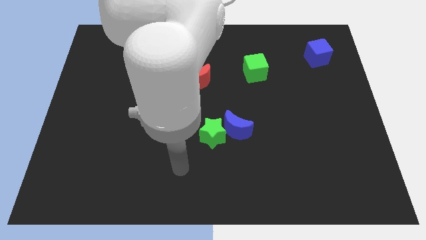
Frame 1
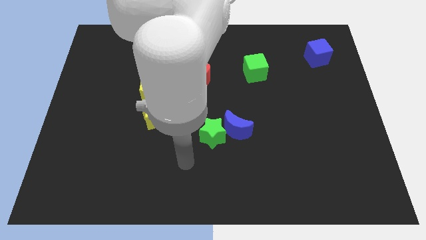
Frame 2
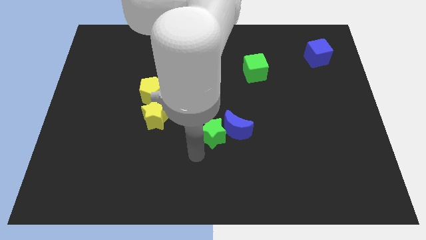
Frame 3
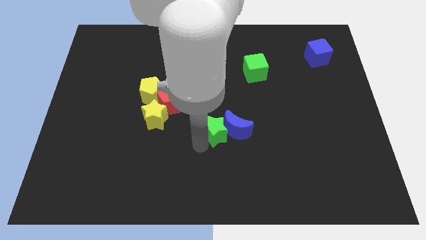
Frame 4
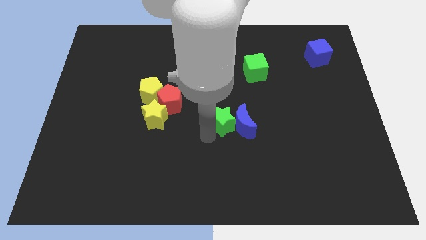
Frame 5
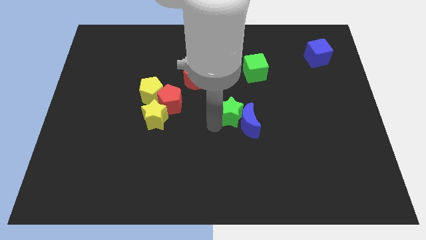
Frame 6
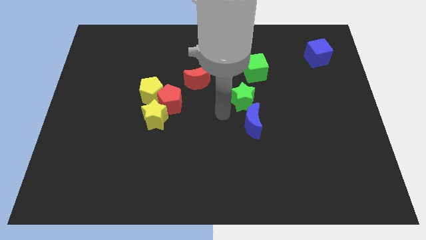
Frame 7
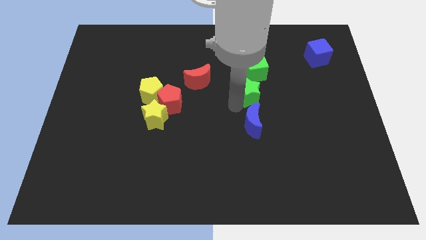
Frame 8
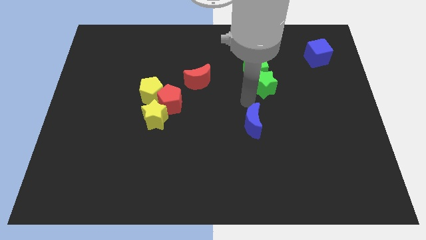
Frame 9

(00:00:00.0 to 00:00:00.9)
move the blue moon away from the green star

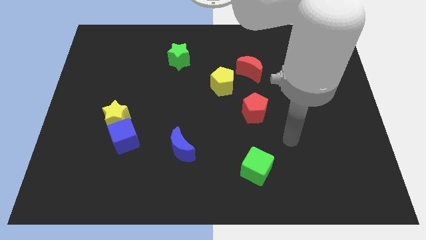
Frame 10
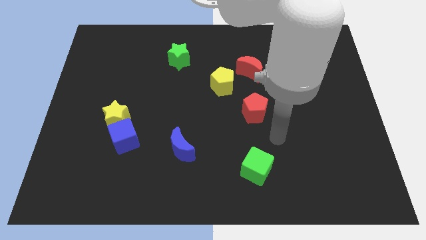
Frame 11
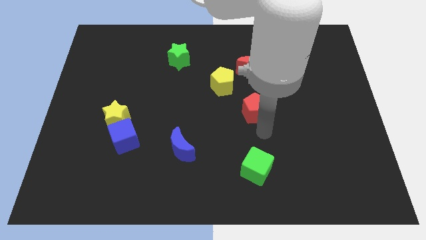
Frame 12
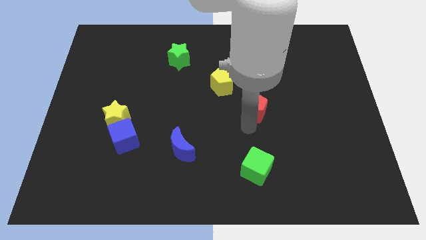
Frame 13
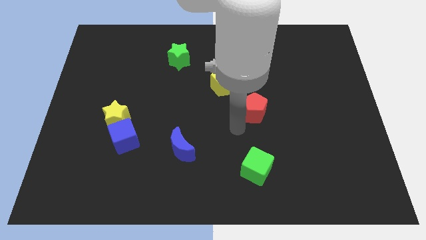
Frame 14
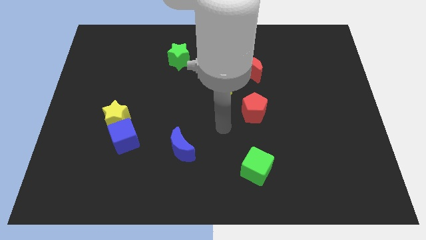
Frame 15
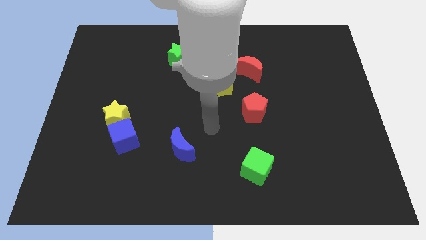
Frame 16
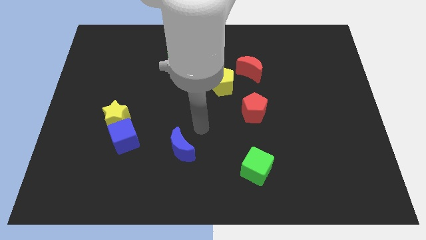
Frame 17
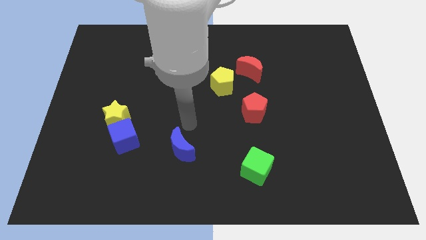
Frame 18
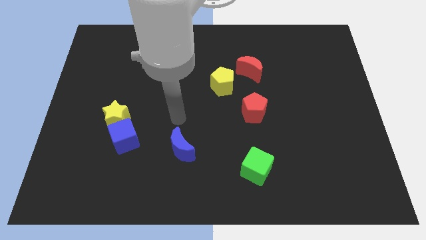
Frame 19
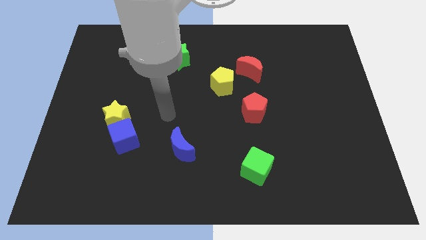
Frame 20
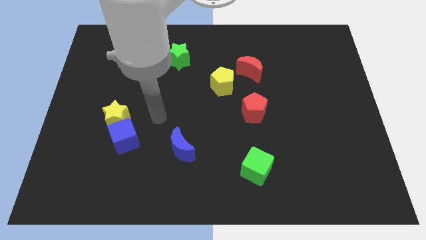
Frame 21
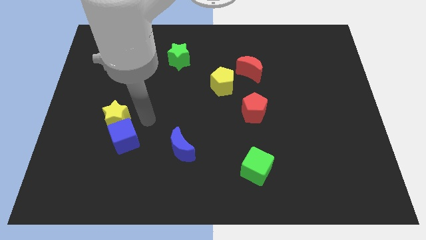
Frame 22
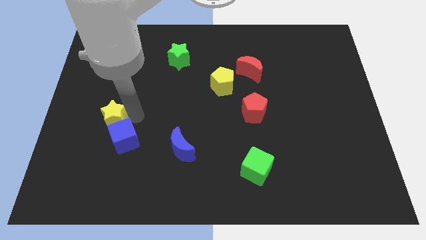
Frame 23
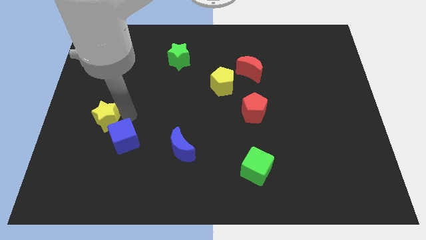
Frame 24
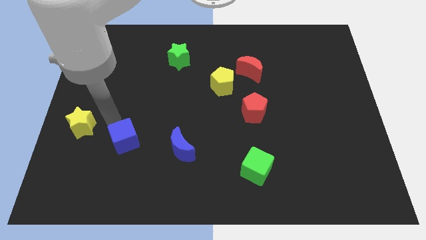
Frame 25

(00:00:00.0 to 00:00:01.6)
pull the blue cube apart from the yellow star

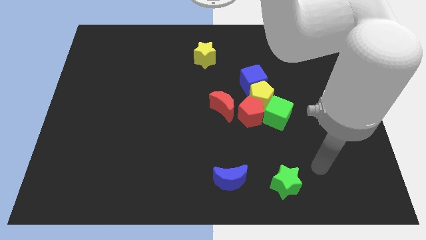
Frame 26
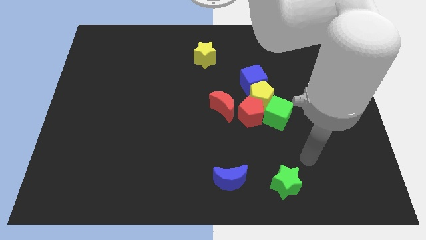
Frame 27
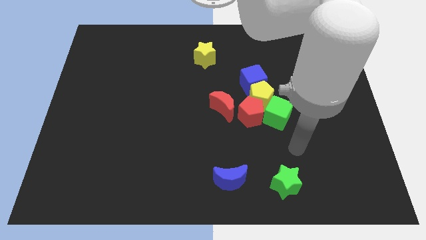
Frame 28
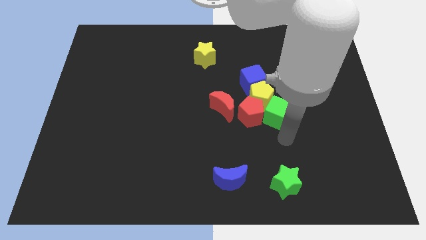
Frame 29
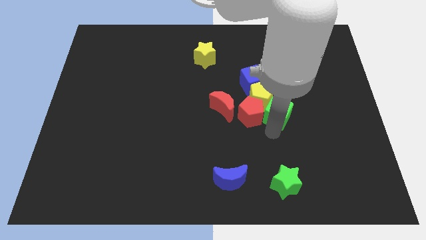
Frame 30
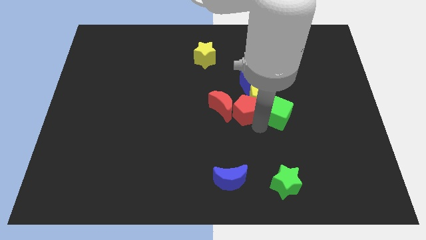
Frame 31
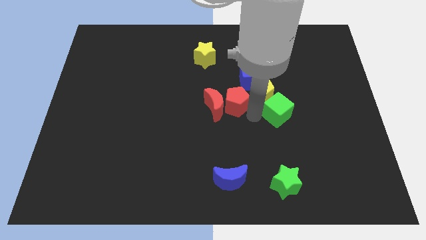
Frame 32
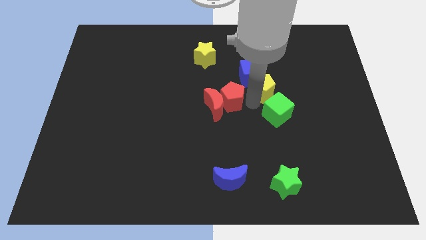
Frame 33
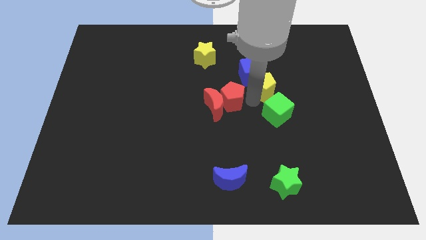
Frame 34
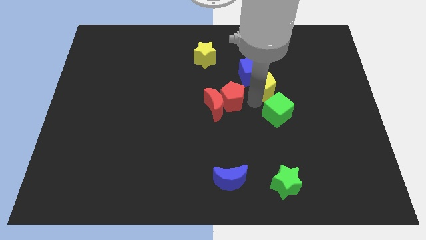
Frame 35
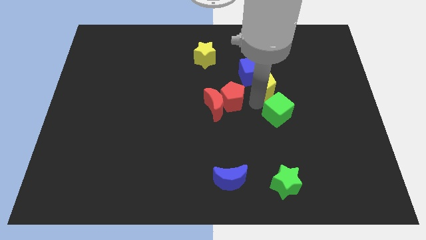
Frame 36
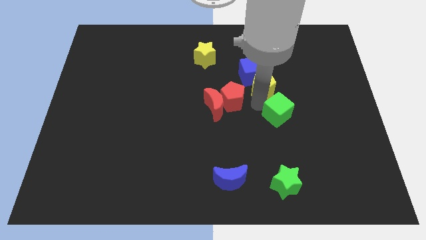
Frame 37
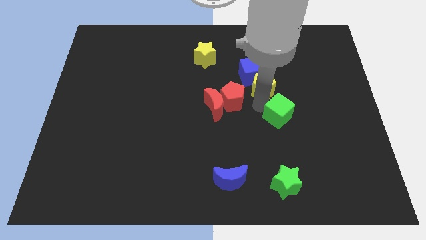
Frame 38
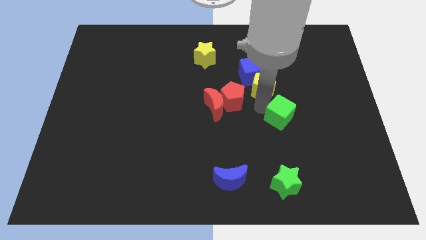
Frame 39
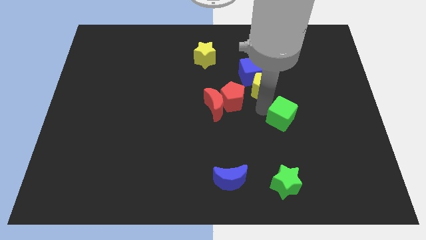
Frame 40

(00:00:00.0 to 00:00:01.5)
separate the green cube from the red pentagon and yellow pentagon

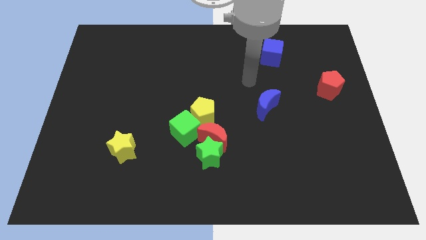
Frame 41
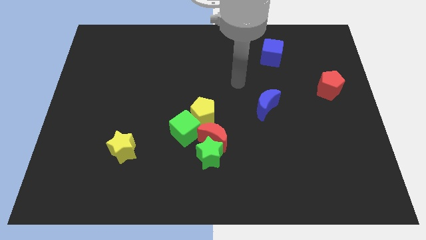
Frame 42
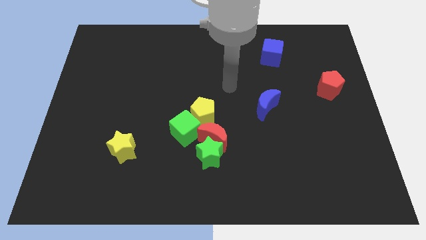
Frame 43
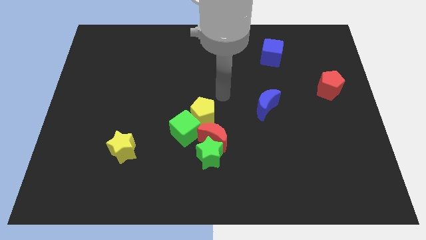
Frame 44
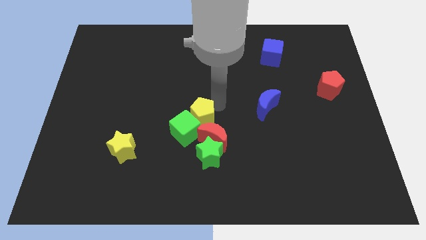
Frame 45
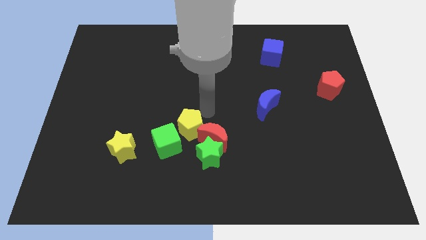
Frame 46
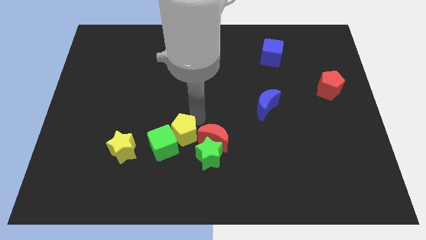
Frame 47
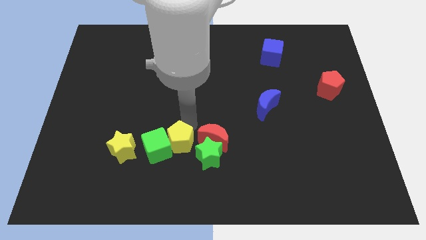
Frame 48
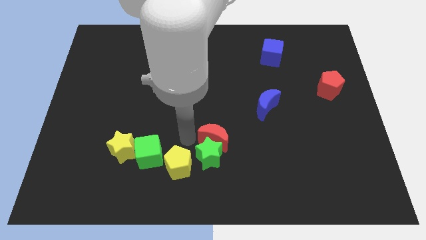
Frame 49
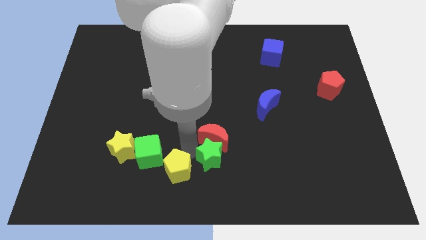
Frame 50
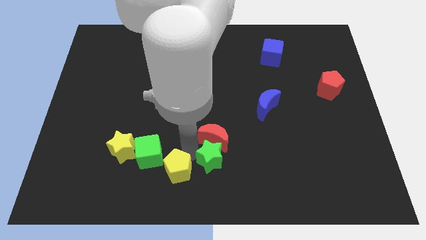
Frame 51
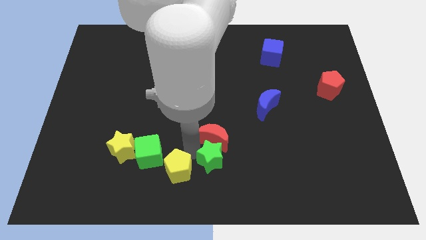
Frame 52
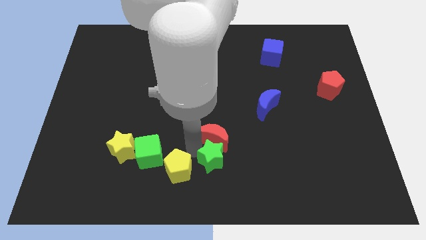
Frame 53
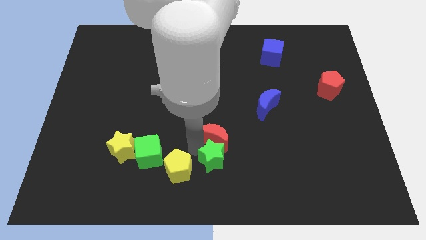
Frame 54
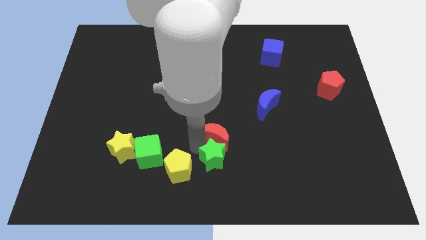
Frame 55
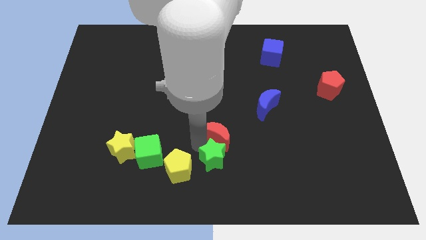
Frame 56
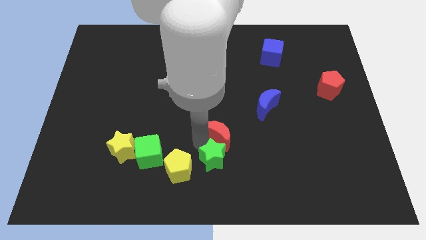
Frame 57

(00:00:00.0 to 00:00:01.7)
move the red moon away from the green star, yellow pentagon, and green cube

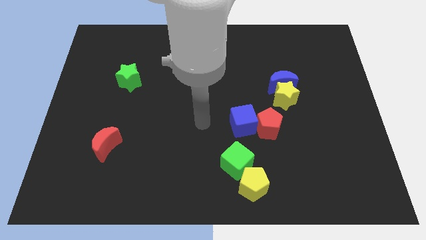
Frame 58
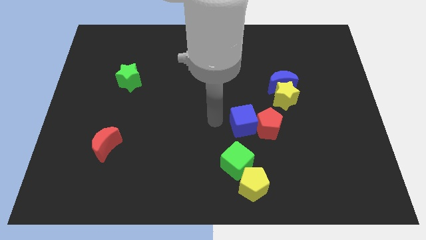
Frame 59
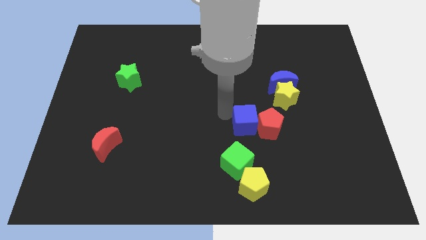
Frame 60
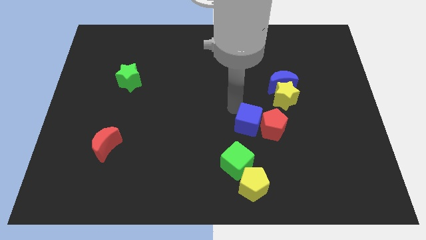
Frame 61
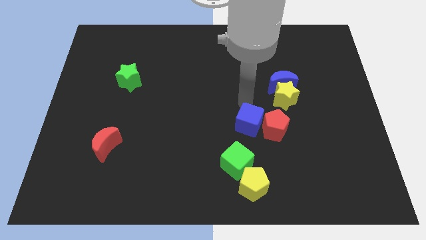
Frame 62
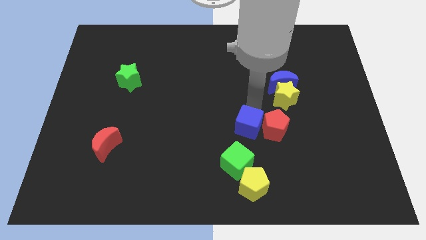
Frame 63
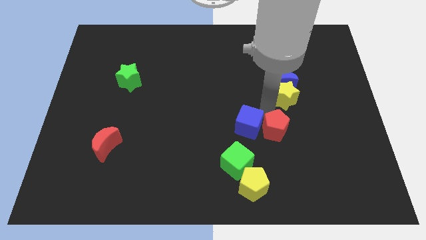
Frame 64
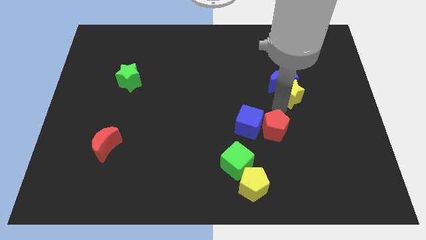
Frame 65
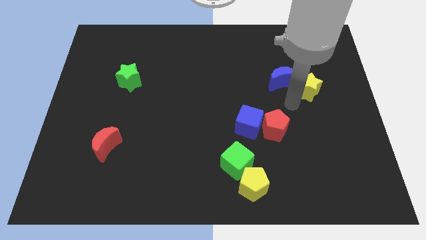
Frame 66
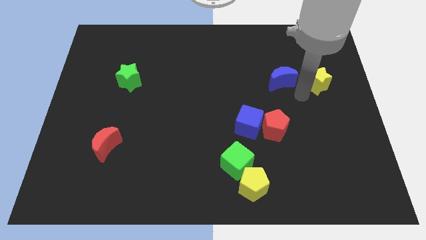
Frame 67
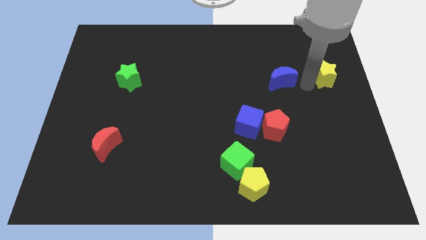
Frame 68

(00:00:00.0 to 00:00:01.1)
move the blue moon away from the yellow star

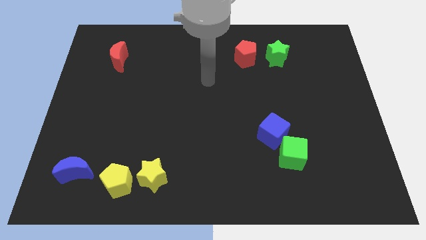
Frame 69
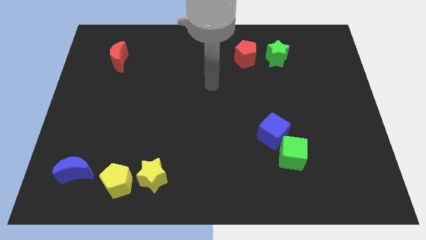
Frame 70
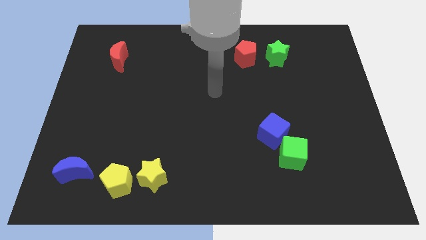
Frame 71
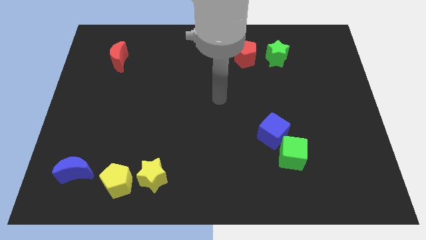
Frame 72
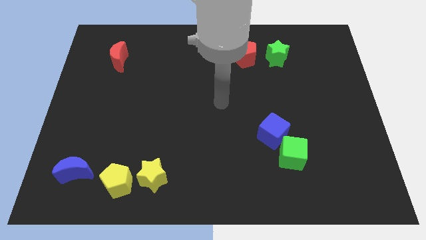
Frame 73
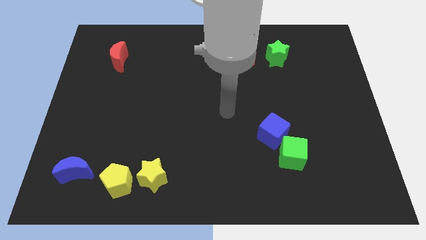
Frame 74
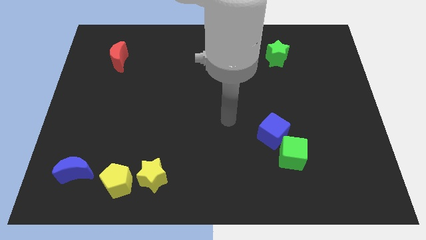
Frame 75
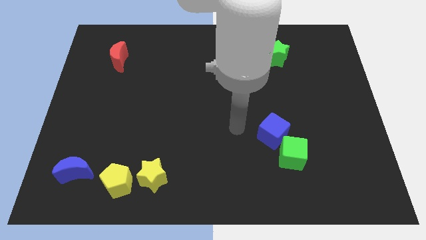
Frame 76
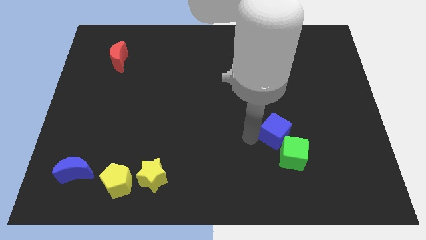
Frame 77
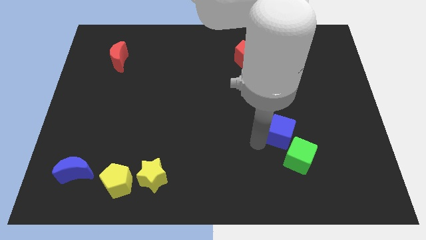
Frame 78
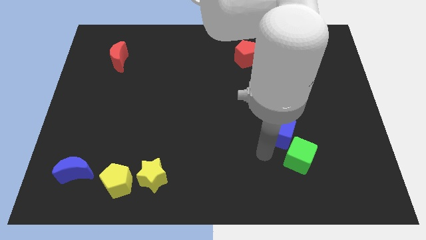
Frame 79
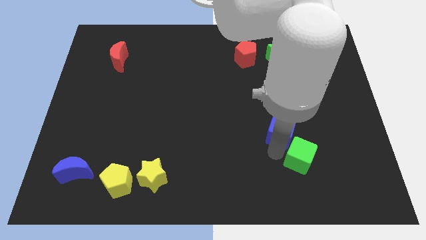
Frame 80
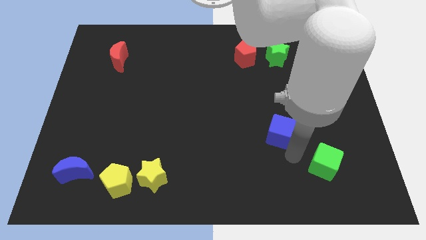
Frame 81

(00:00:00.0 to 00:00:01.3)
separate the blue cube from the green cube

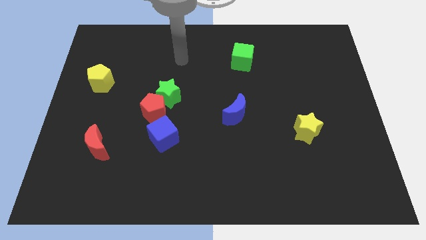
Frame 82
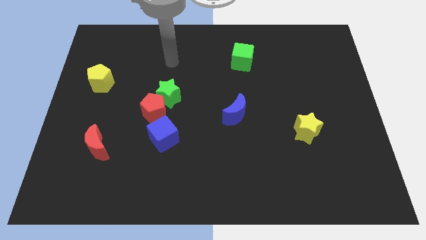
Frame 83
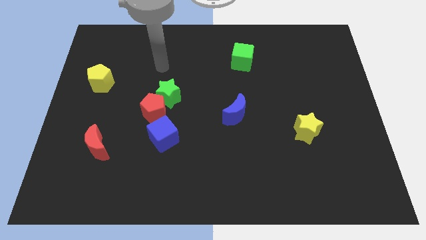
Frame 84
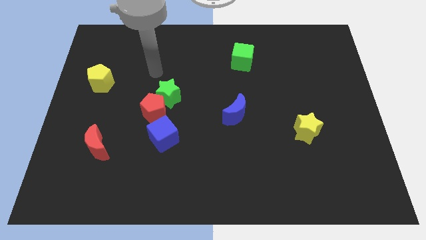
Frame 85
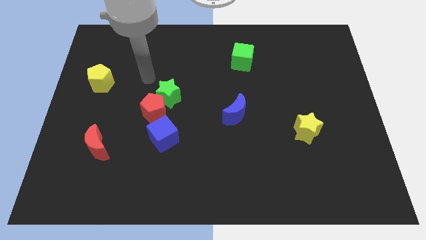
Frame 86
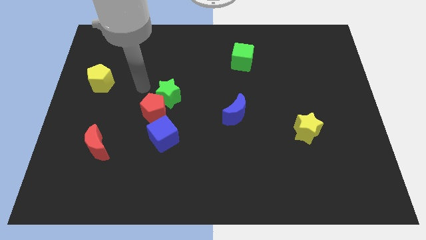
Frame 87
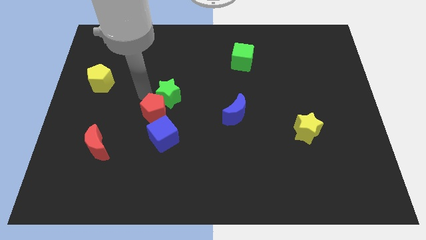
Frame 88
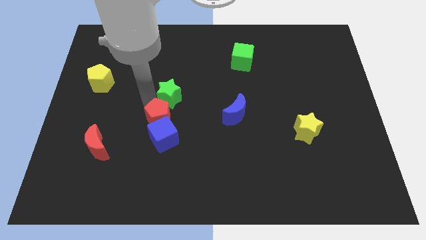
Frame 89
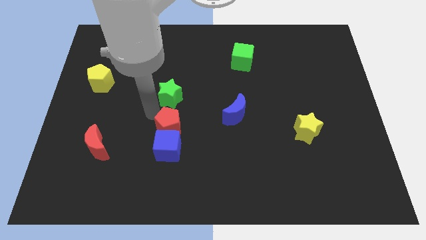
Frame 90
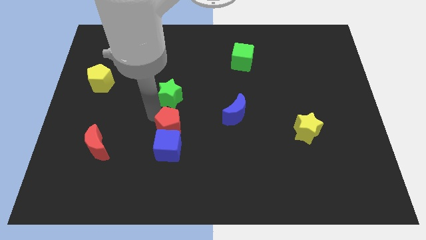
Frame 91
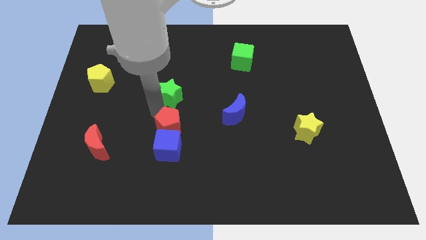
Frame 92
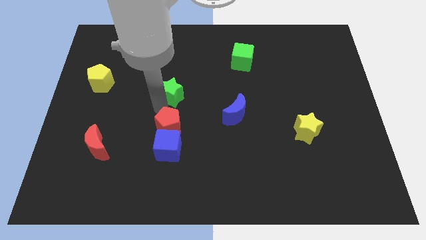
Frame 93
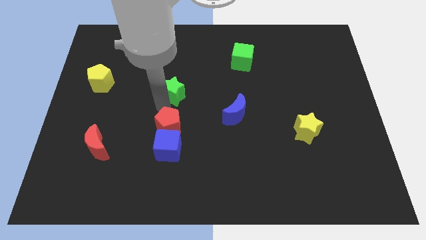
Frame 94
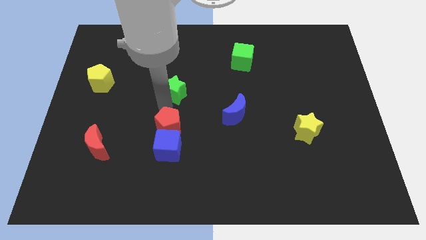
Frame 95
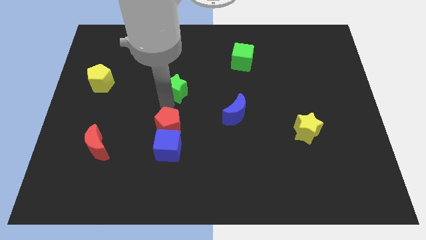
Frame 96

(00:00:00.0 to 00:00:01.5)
separate the green star from the red pentagon
